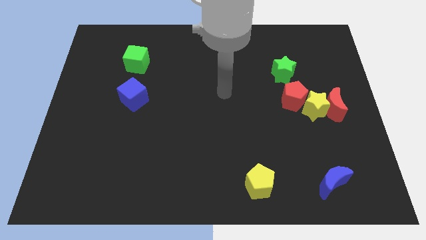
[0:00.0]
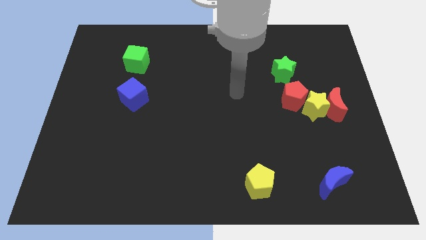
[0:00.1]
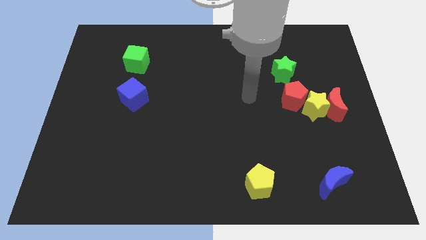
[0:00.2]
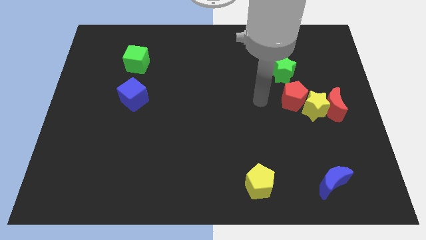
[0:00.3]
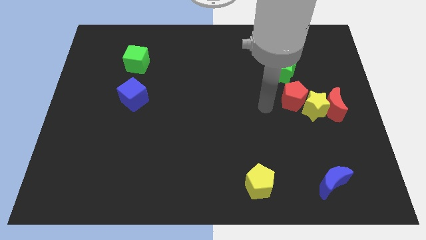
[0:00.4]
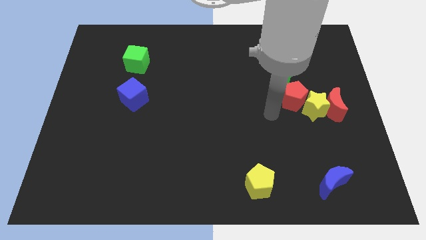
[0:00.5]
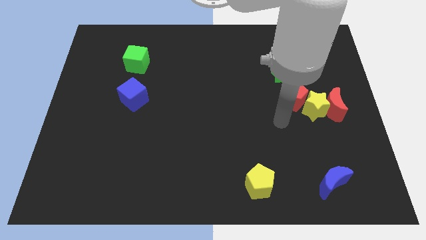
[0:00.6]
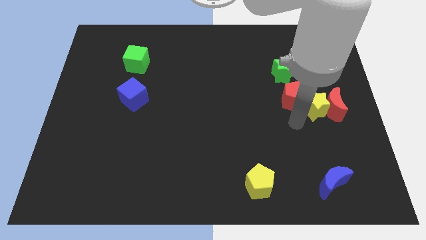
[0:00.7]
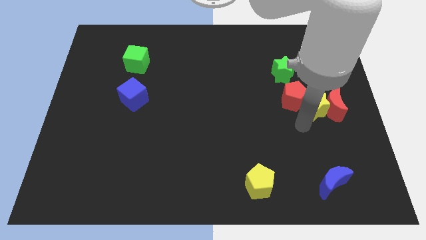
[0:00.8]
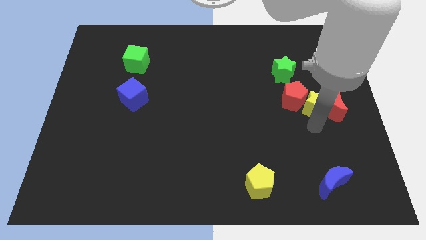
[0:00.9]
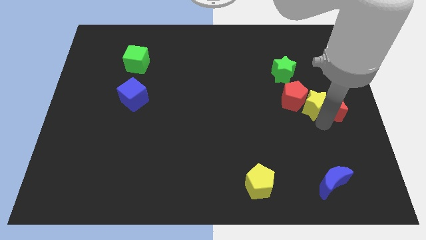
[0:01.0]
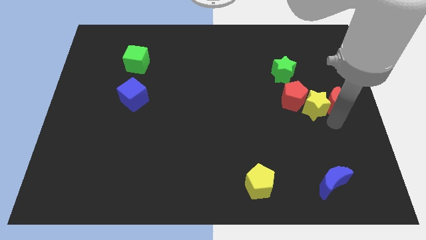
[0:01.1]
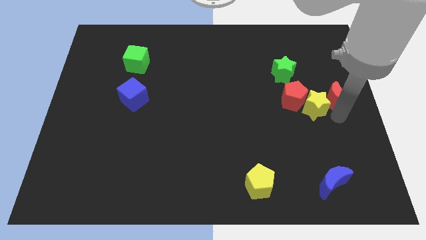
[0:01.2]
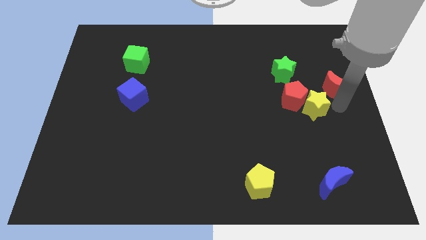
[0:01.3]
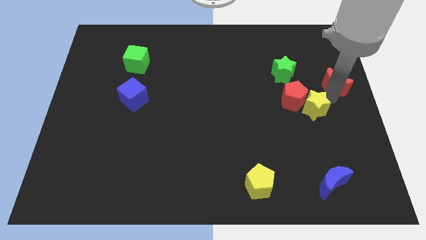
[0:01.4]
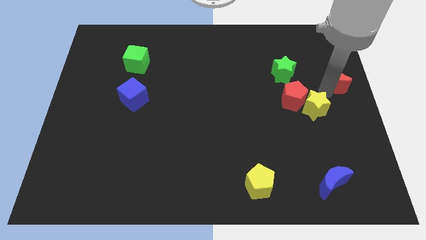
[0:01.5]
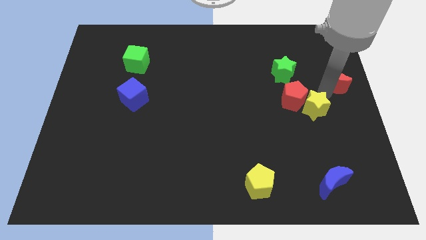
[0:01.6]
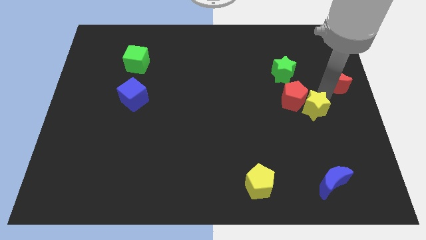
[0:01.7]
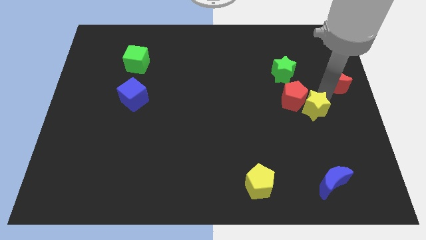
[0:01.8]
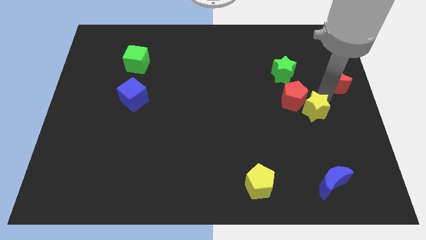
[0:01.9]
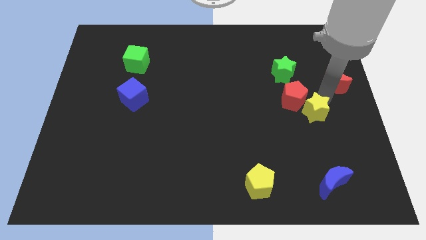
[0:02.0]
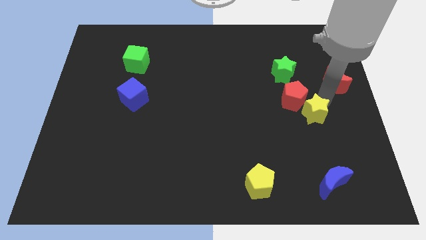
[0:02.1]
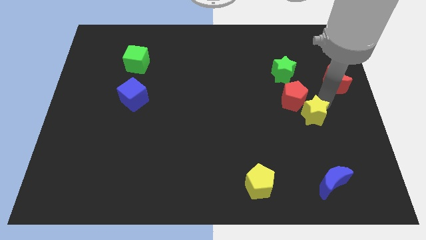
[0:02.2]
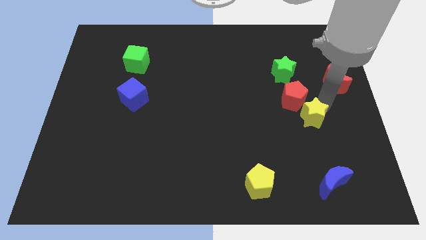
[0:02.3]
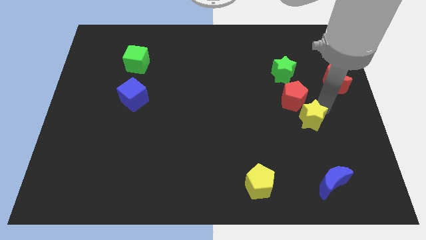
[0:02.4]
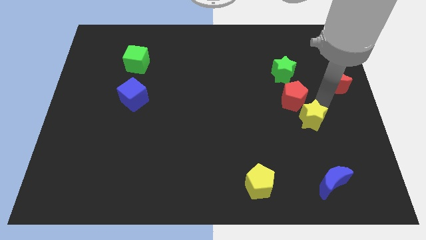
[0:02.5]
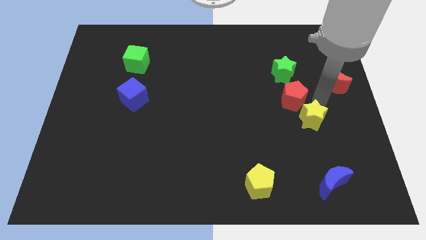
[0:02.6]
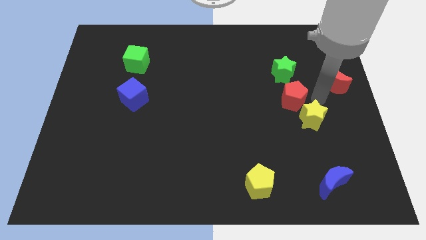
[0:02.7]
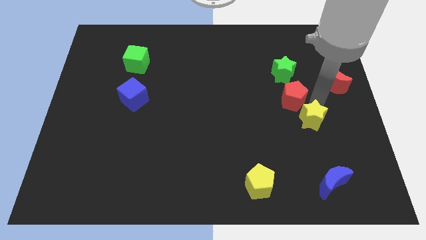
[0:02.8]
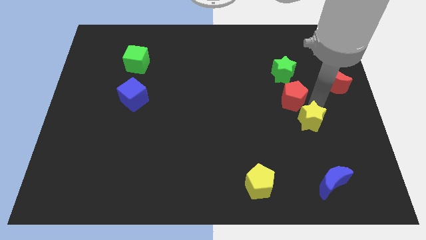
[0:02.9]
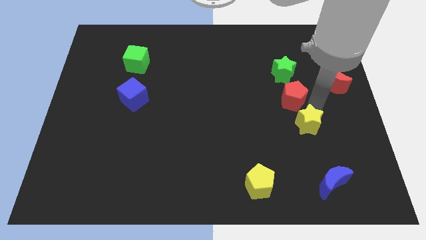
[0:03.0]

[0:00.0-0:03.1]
move the yellow star away from the red moon and red pentagon

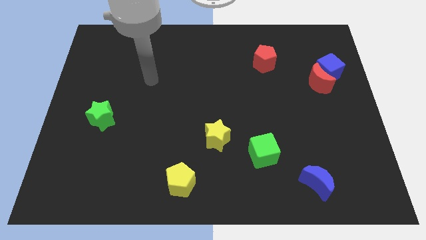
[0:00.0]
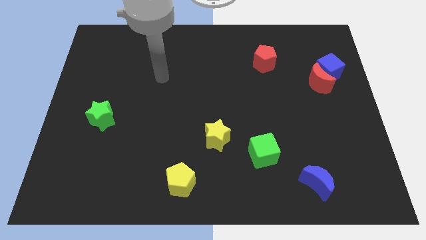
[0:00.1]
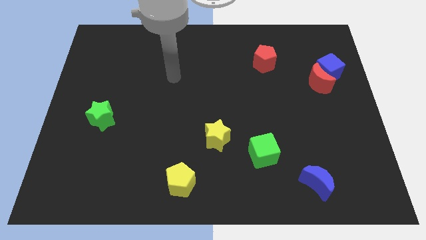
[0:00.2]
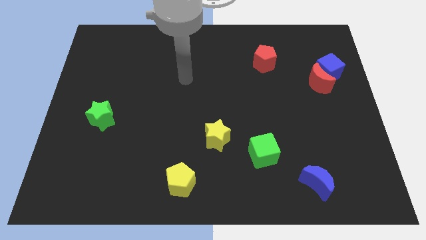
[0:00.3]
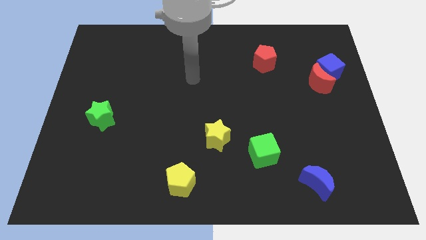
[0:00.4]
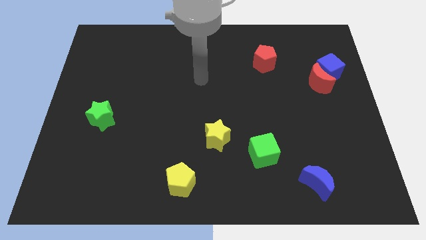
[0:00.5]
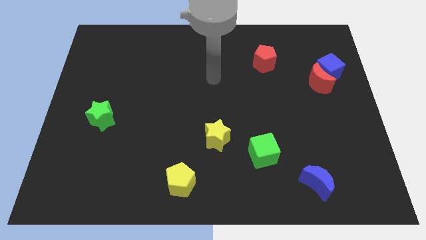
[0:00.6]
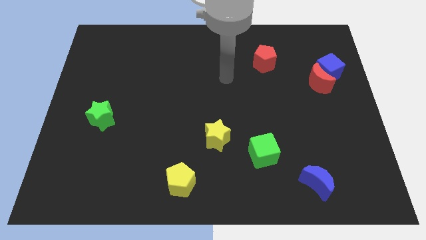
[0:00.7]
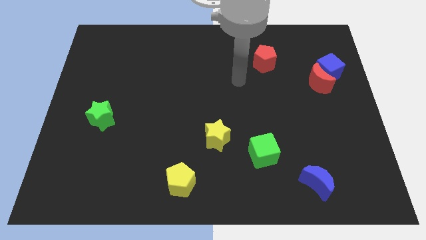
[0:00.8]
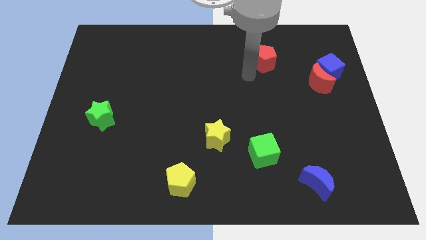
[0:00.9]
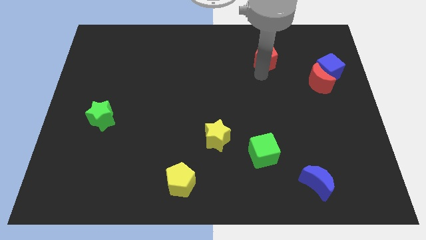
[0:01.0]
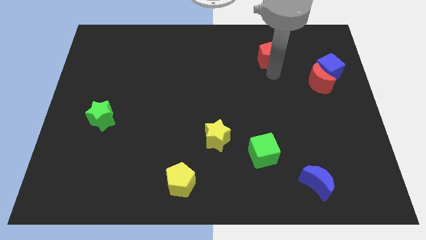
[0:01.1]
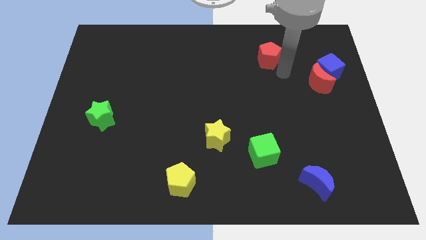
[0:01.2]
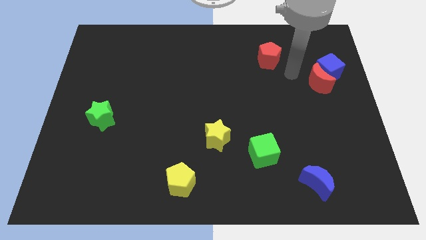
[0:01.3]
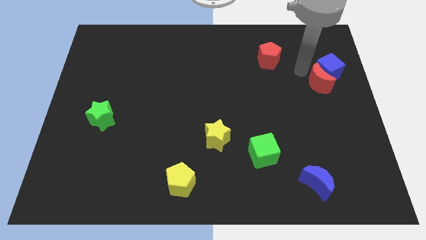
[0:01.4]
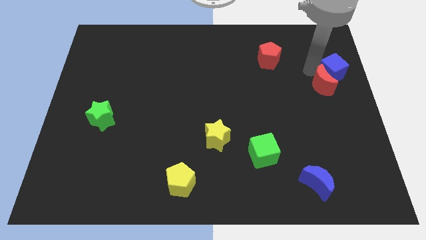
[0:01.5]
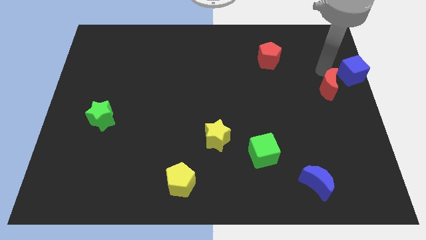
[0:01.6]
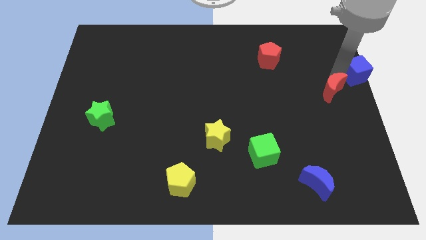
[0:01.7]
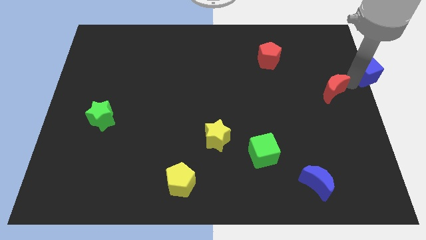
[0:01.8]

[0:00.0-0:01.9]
separate the red moon from the blue cube

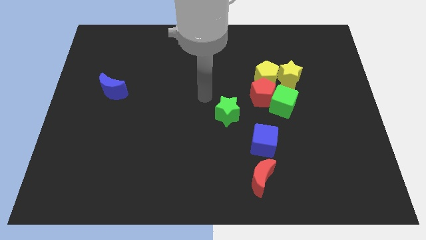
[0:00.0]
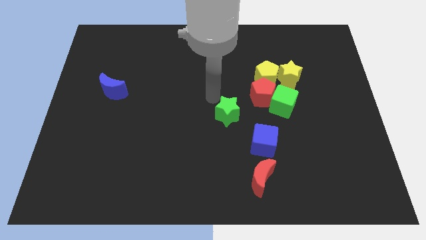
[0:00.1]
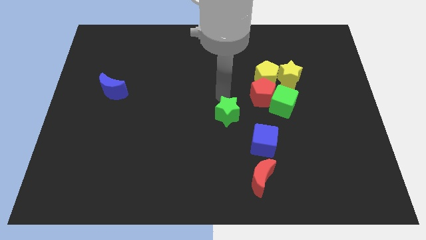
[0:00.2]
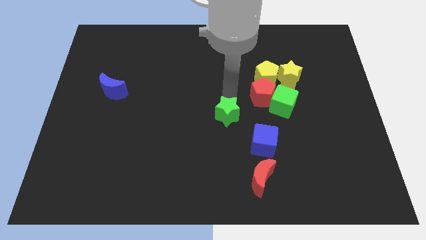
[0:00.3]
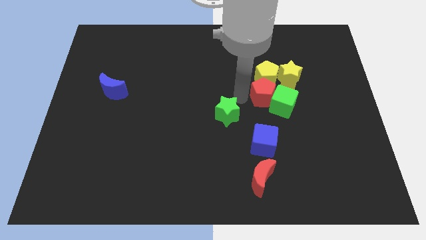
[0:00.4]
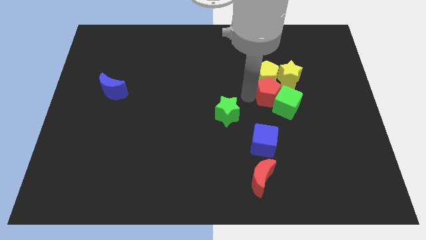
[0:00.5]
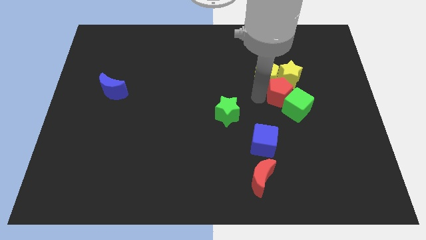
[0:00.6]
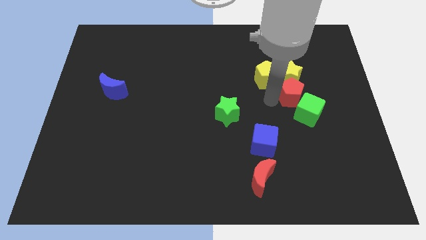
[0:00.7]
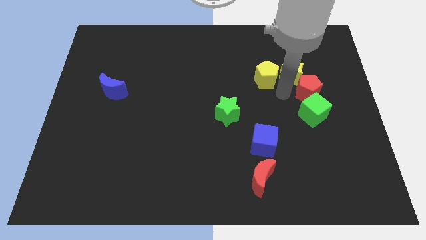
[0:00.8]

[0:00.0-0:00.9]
pull the yellow pentagon apart from the clump

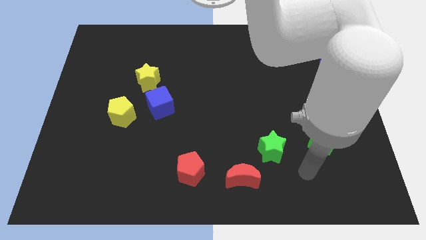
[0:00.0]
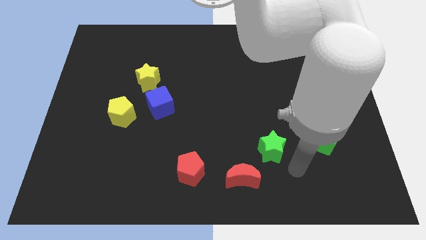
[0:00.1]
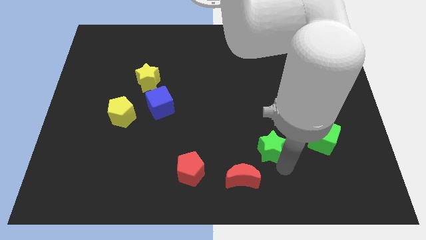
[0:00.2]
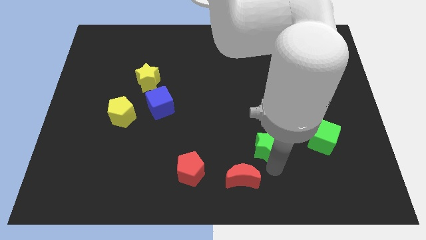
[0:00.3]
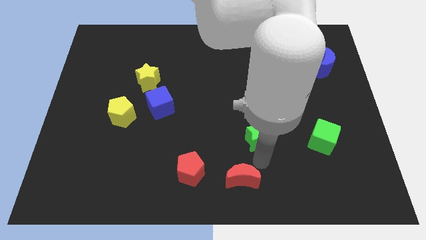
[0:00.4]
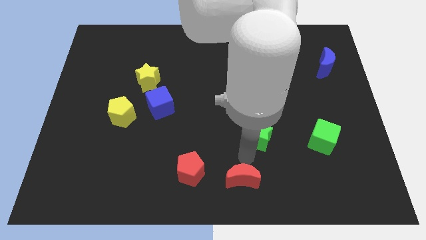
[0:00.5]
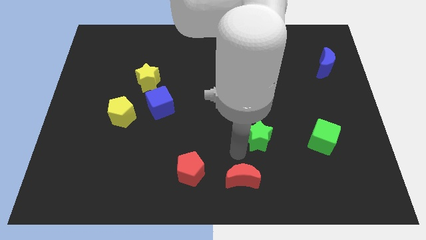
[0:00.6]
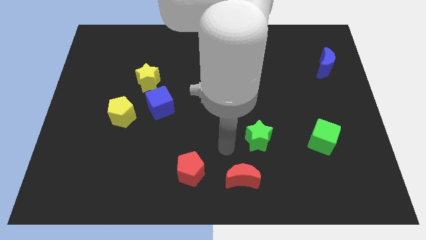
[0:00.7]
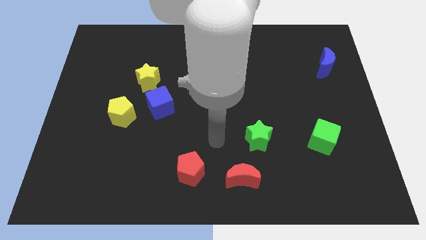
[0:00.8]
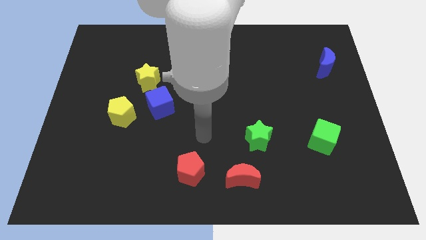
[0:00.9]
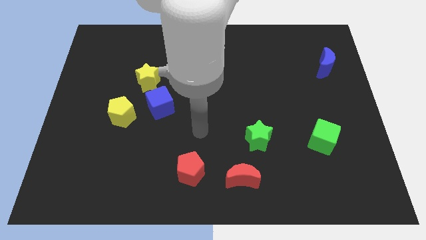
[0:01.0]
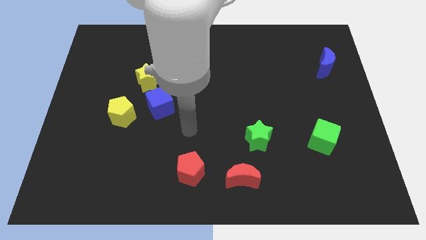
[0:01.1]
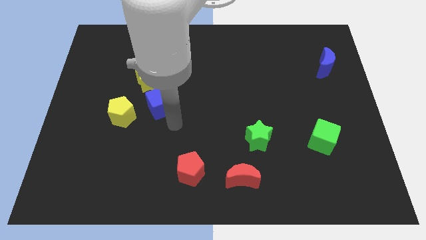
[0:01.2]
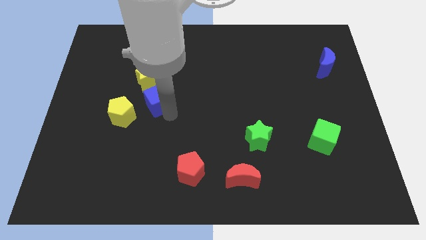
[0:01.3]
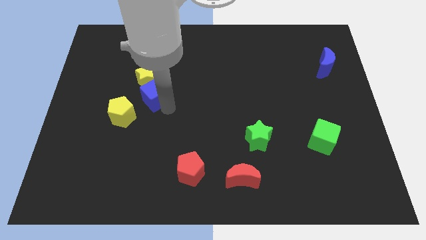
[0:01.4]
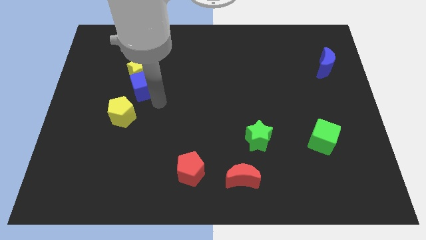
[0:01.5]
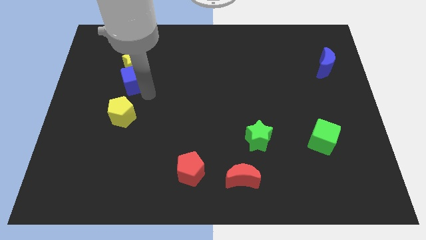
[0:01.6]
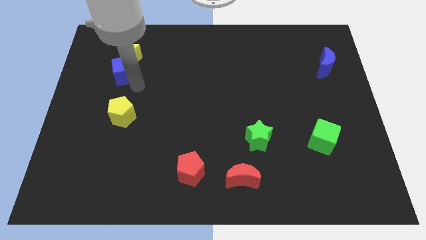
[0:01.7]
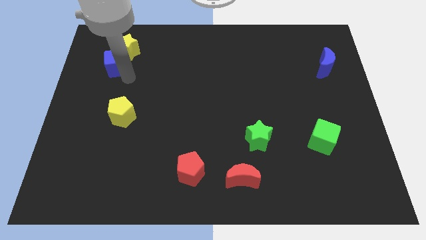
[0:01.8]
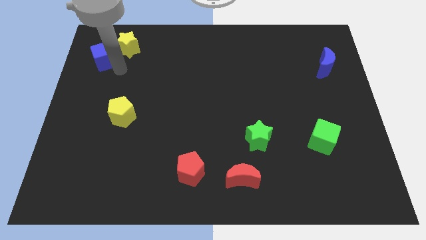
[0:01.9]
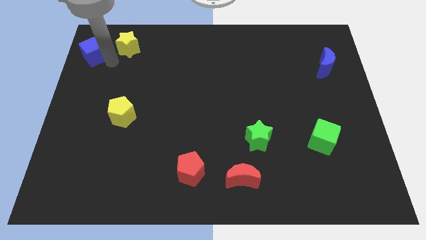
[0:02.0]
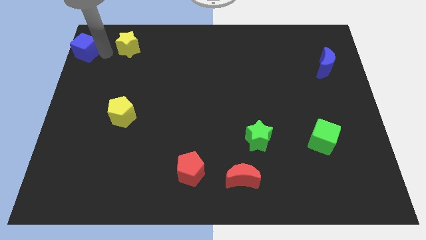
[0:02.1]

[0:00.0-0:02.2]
move the yellow star away from the blue cube

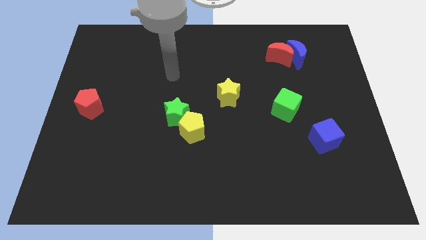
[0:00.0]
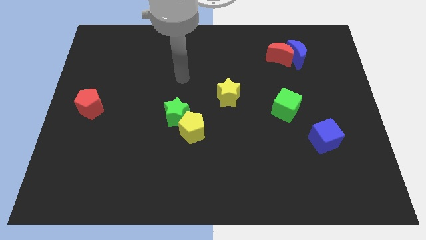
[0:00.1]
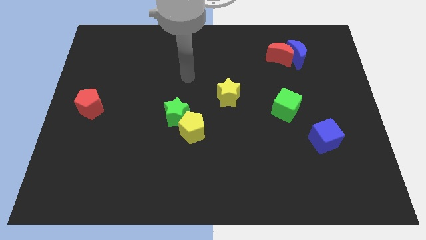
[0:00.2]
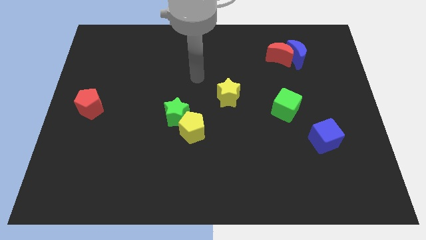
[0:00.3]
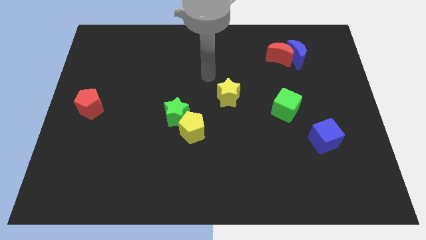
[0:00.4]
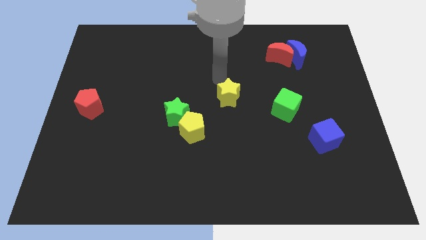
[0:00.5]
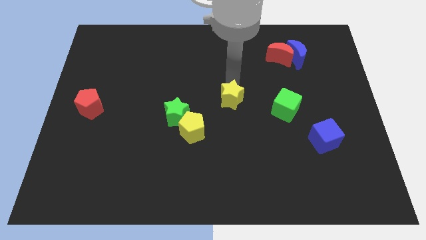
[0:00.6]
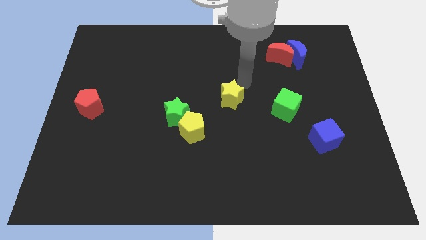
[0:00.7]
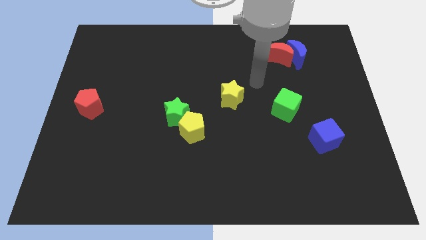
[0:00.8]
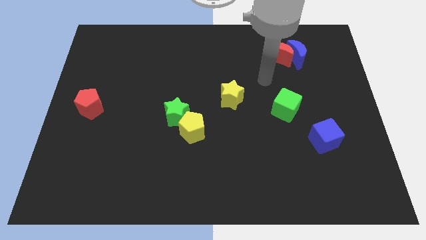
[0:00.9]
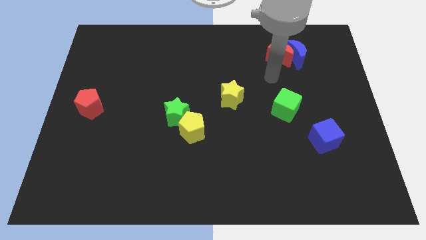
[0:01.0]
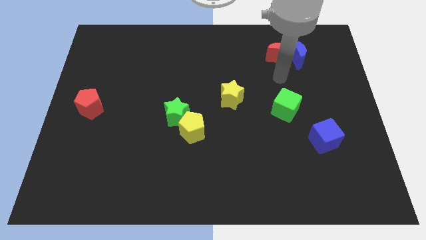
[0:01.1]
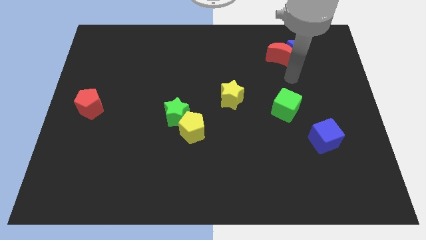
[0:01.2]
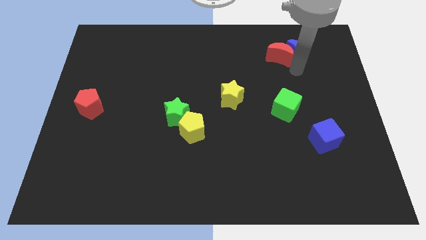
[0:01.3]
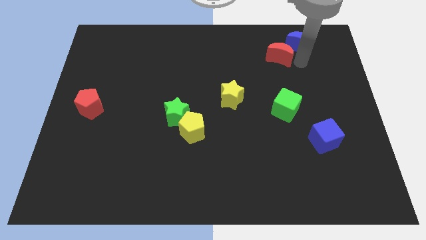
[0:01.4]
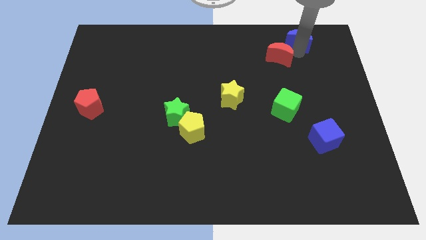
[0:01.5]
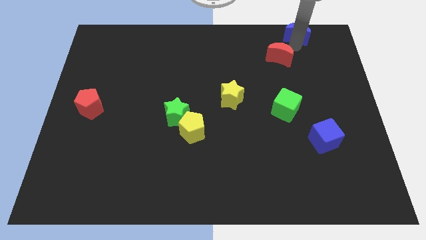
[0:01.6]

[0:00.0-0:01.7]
pull the red moon apart from the blue moon
